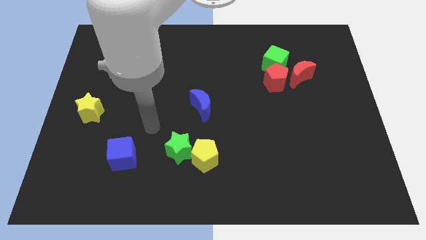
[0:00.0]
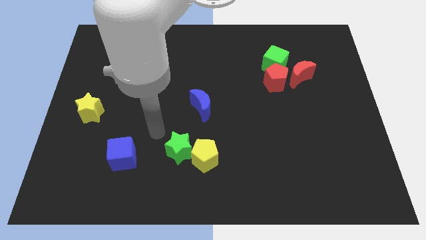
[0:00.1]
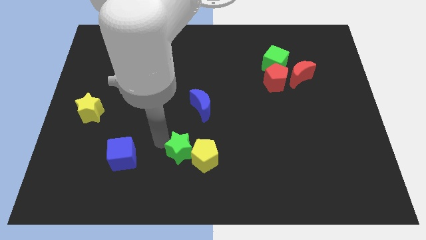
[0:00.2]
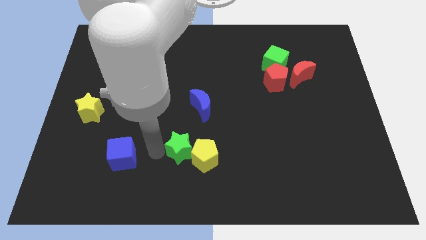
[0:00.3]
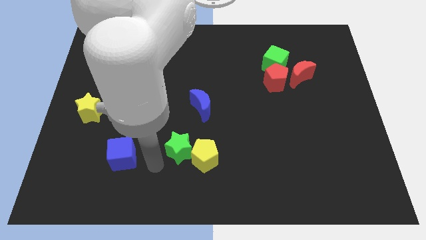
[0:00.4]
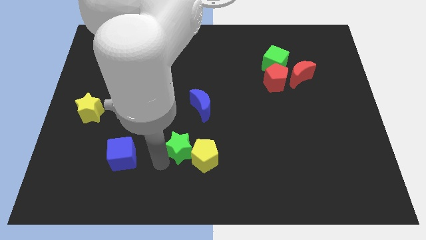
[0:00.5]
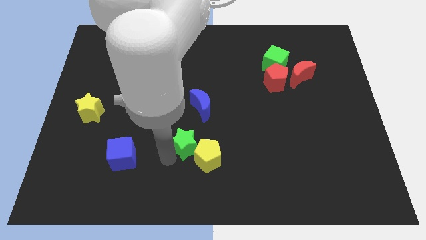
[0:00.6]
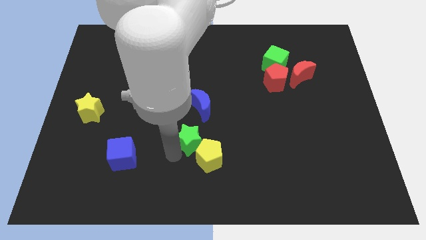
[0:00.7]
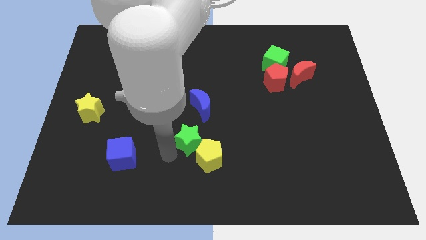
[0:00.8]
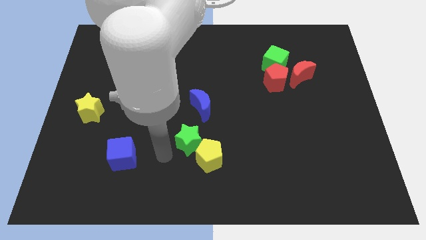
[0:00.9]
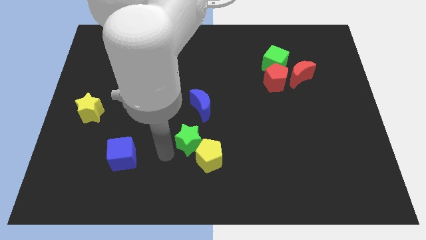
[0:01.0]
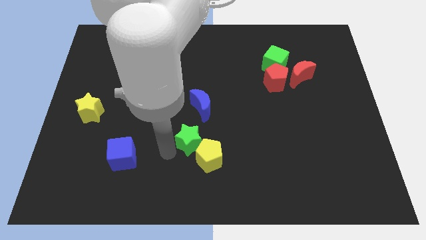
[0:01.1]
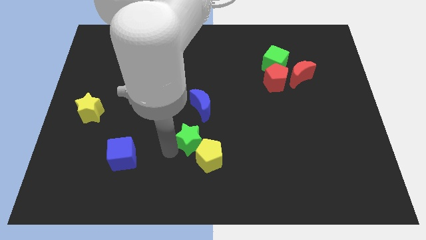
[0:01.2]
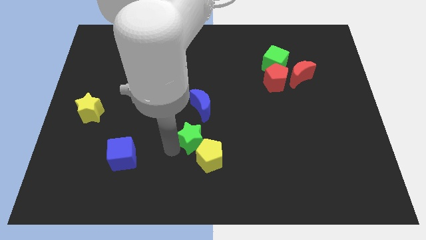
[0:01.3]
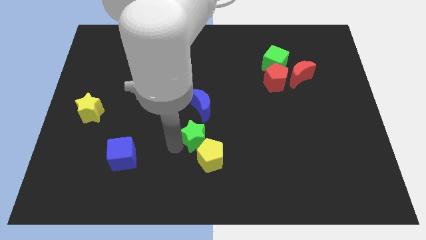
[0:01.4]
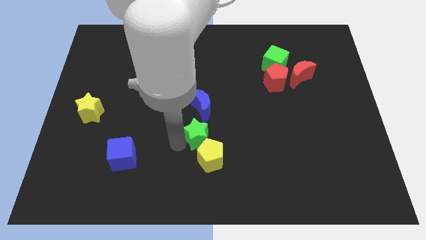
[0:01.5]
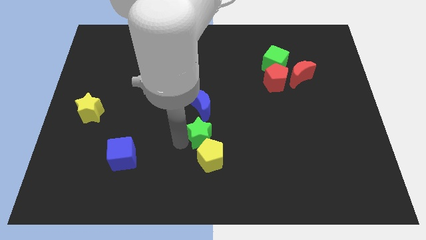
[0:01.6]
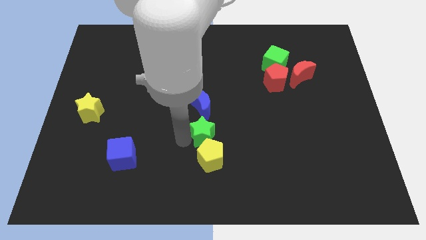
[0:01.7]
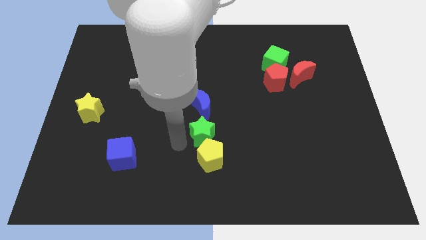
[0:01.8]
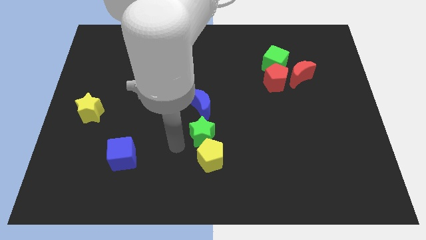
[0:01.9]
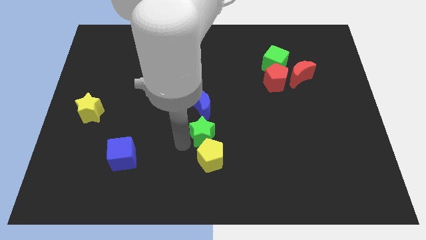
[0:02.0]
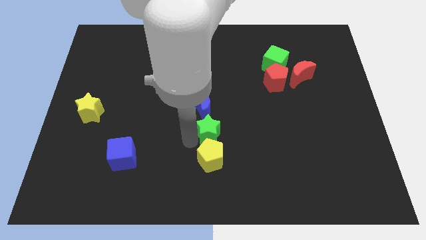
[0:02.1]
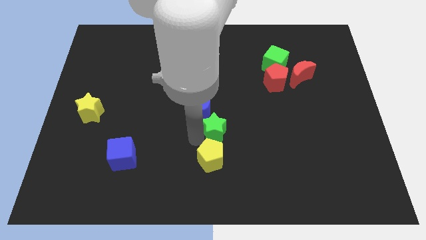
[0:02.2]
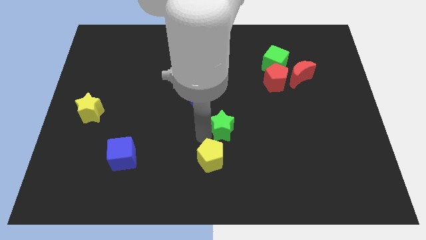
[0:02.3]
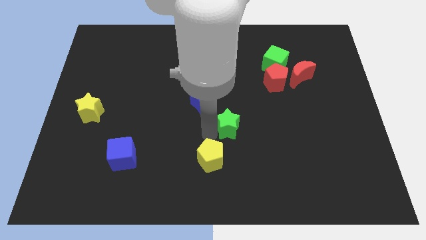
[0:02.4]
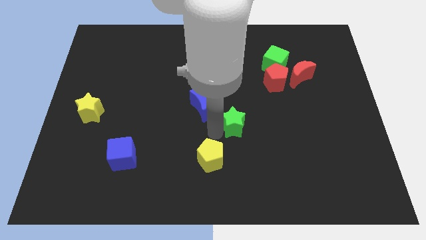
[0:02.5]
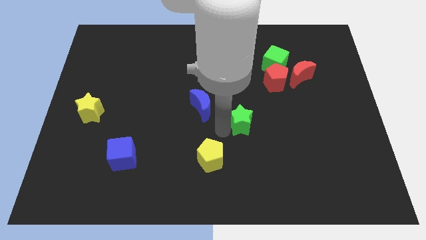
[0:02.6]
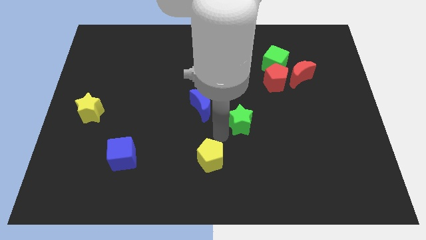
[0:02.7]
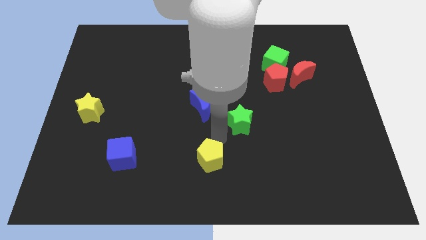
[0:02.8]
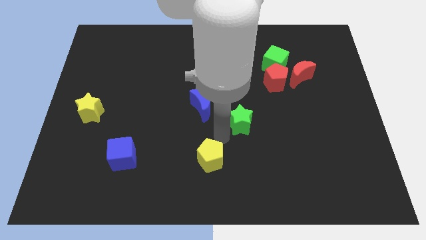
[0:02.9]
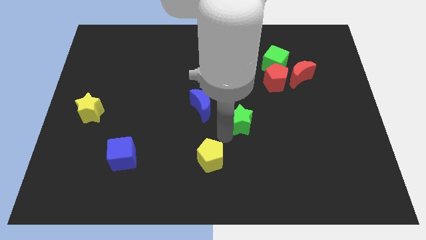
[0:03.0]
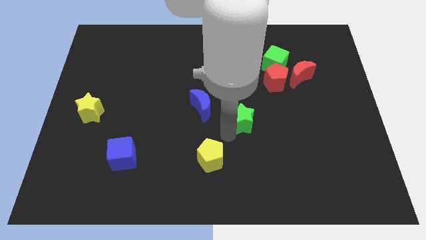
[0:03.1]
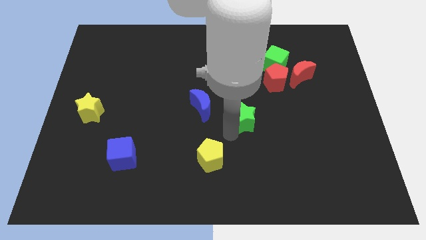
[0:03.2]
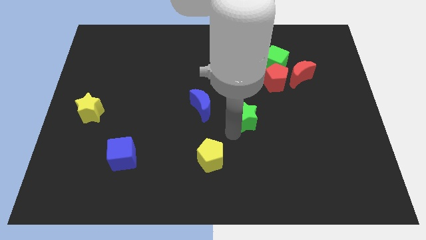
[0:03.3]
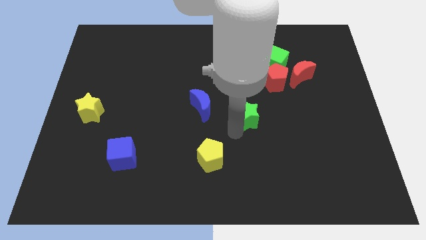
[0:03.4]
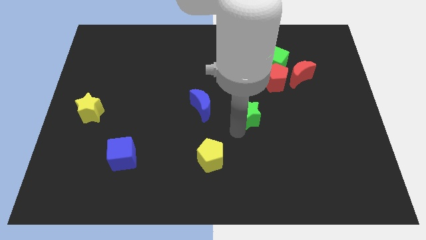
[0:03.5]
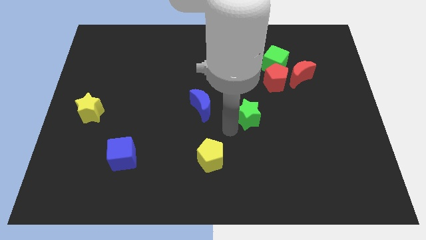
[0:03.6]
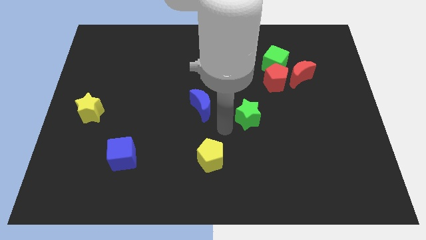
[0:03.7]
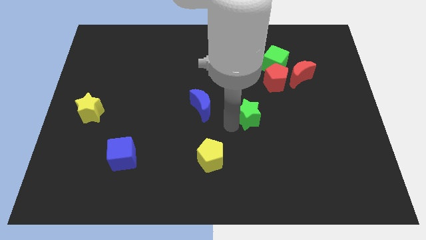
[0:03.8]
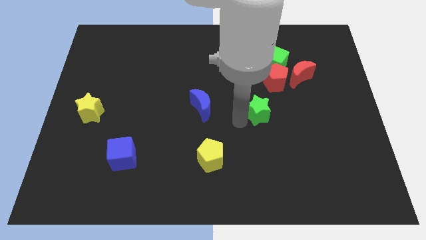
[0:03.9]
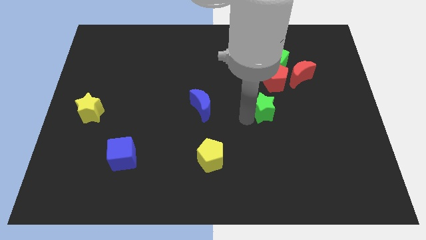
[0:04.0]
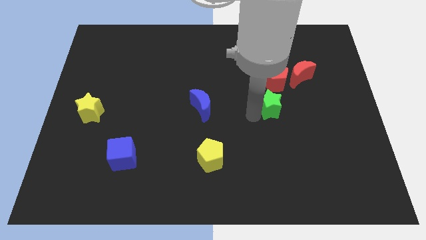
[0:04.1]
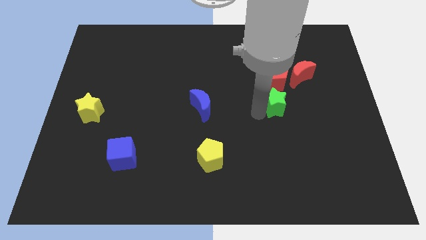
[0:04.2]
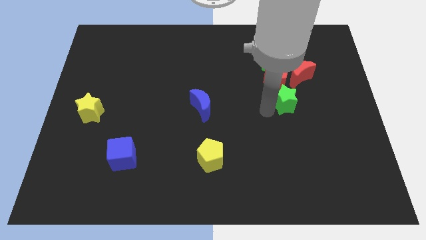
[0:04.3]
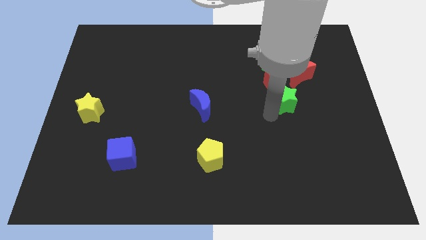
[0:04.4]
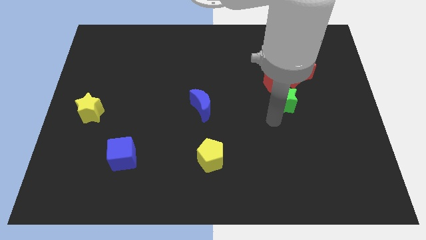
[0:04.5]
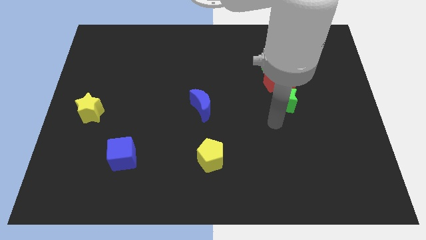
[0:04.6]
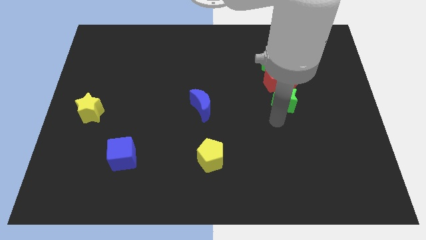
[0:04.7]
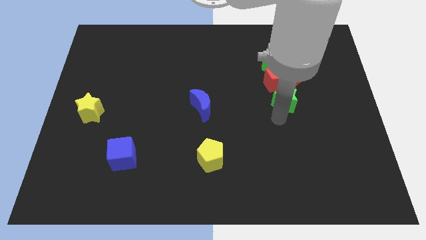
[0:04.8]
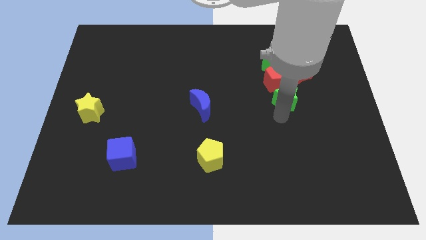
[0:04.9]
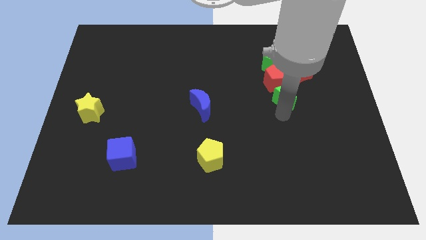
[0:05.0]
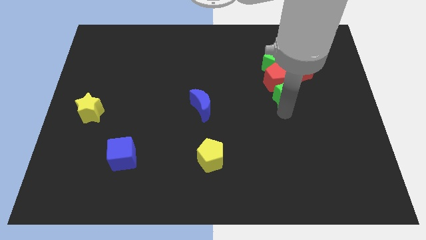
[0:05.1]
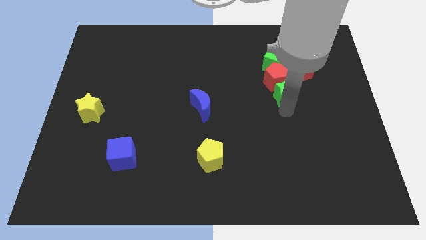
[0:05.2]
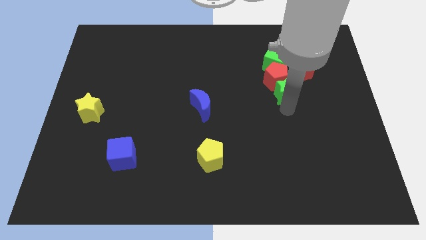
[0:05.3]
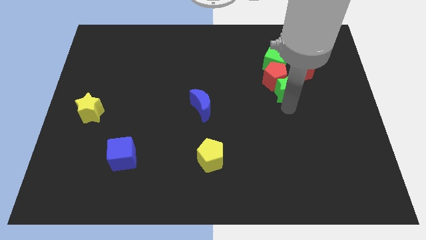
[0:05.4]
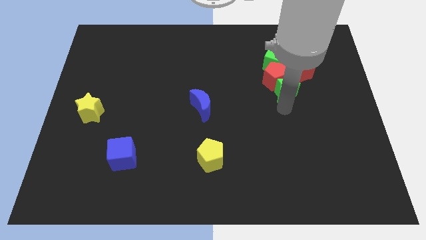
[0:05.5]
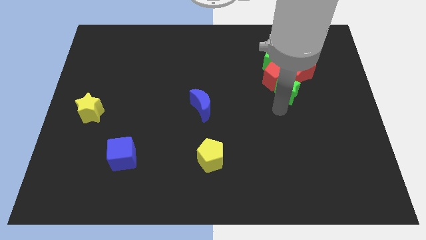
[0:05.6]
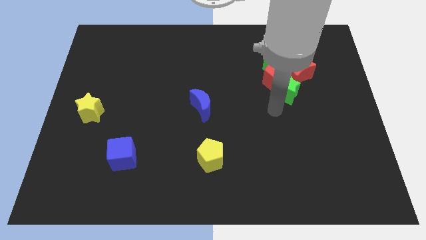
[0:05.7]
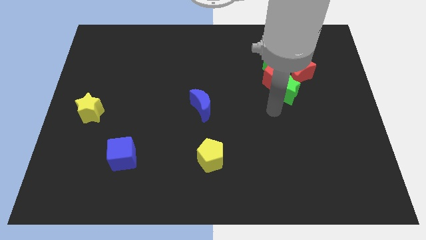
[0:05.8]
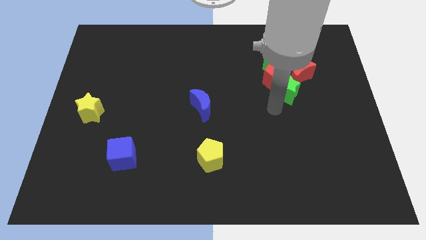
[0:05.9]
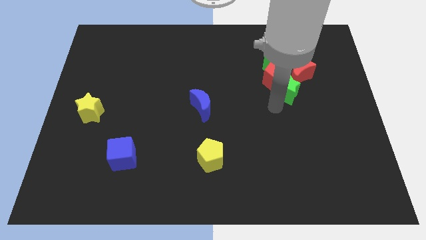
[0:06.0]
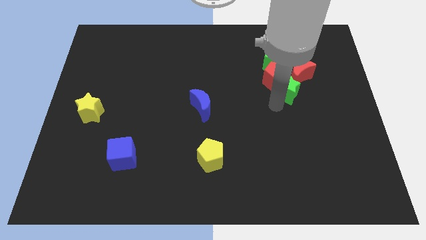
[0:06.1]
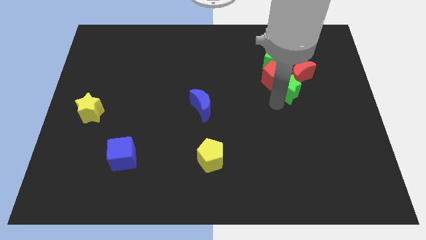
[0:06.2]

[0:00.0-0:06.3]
put the green star next to the red moon

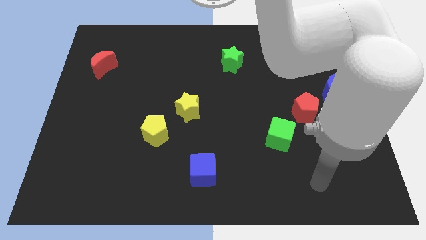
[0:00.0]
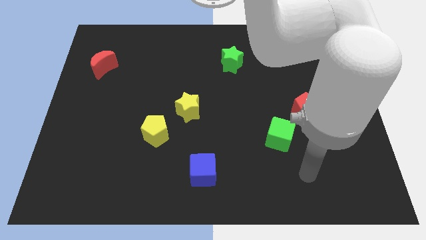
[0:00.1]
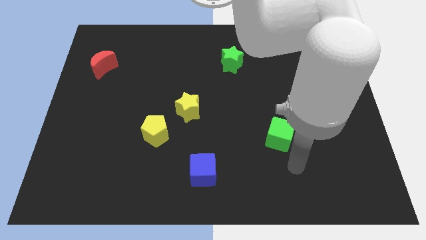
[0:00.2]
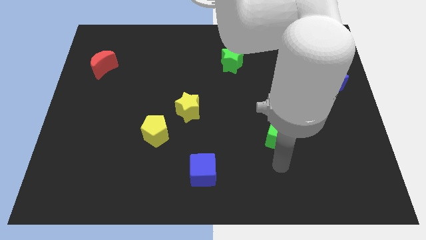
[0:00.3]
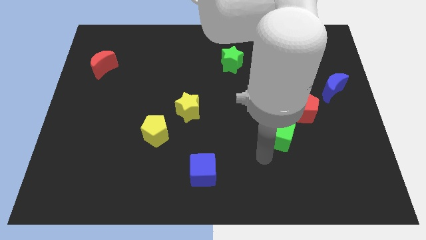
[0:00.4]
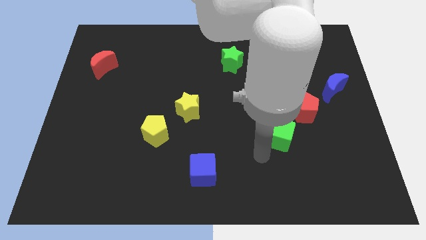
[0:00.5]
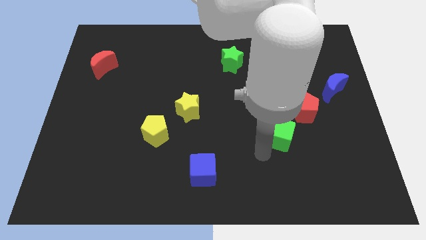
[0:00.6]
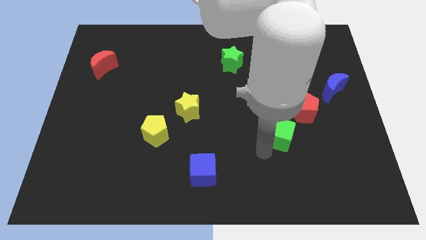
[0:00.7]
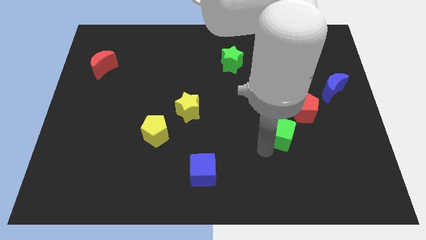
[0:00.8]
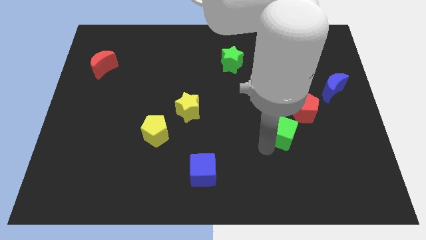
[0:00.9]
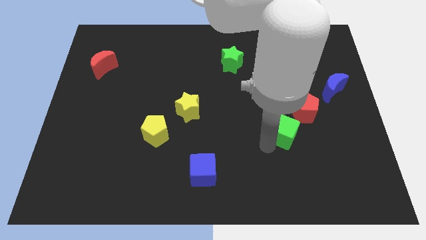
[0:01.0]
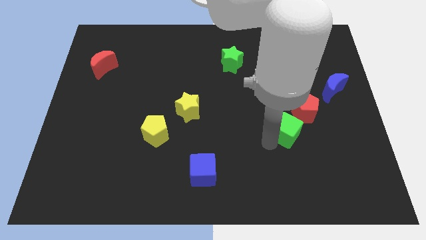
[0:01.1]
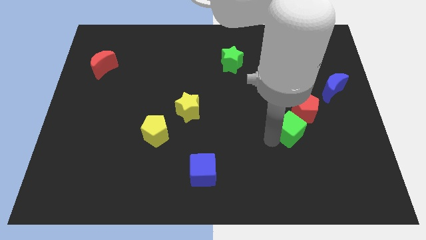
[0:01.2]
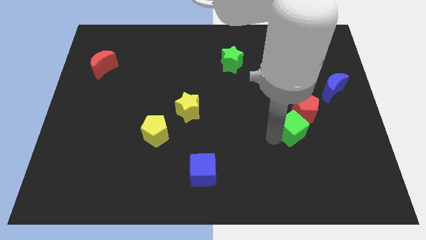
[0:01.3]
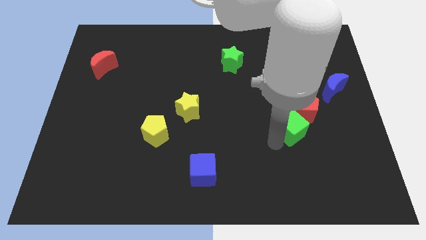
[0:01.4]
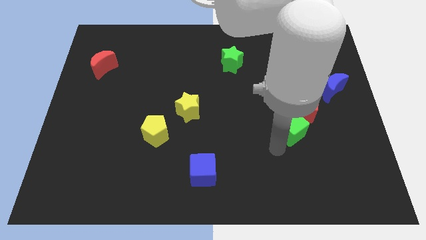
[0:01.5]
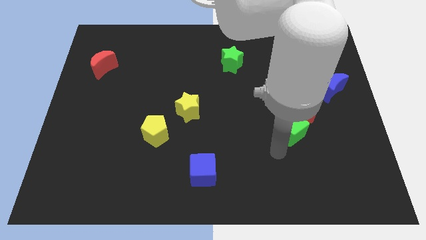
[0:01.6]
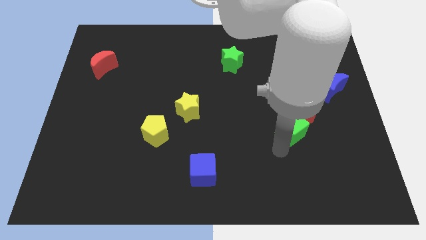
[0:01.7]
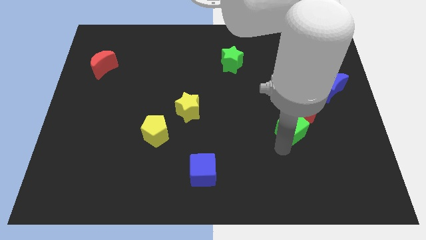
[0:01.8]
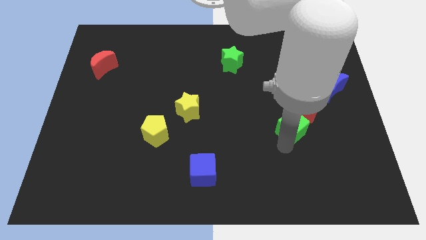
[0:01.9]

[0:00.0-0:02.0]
move the green cube next to the red pentagon
